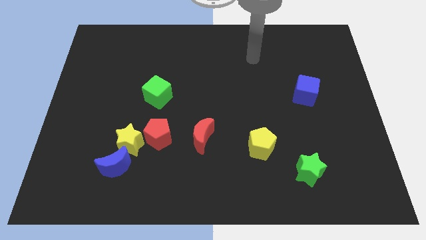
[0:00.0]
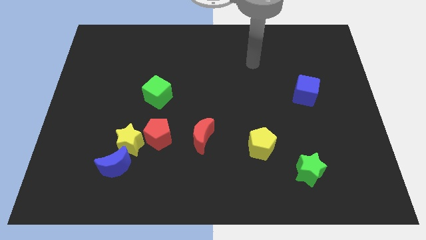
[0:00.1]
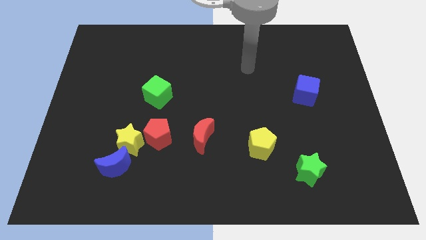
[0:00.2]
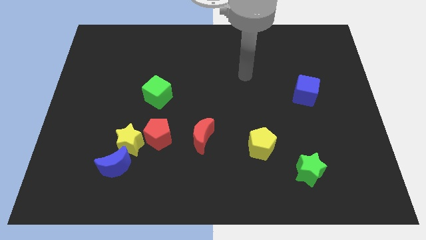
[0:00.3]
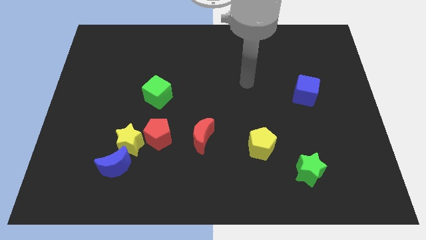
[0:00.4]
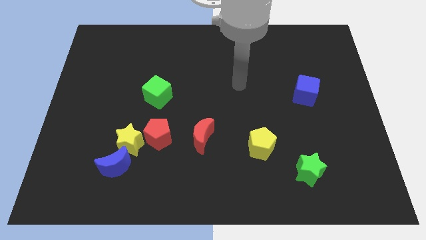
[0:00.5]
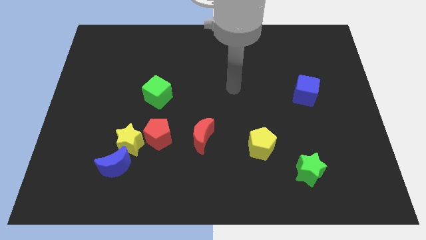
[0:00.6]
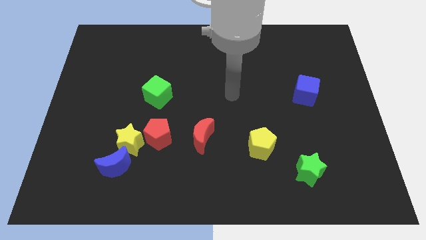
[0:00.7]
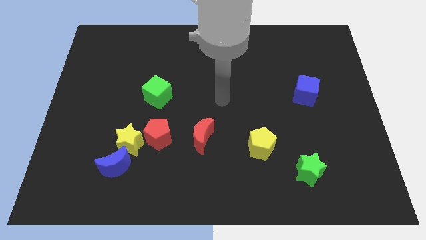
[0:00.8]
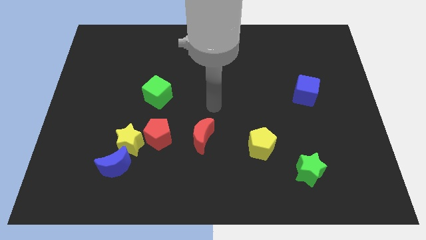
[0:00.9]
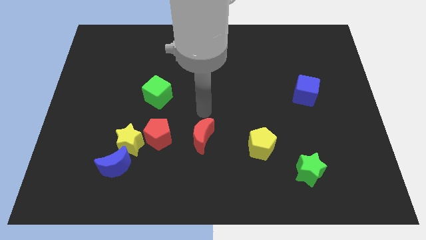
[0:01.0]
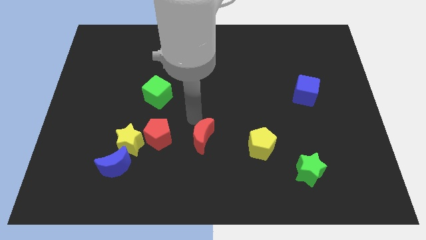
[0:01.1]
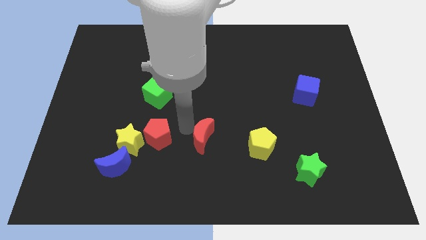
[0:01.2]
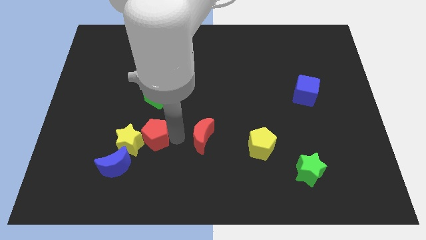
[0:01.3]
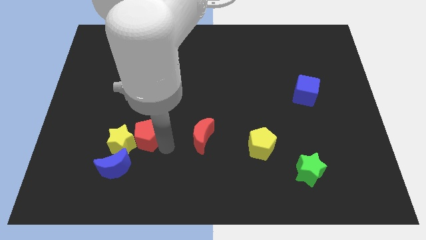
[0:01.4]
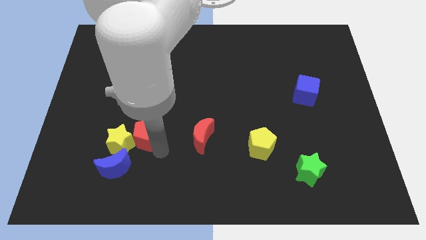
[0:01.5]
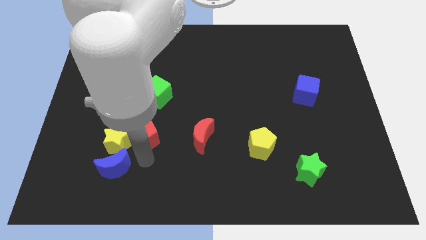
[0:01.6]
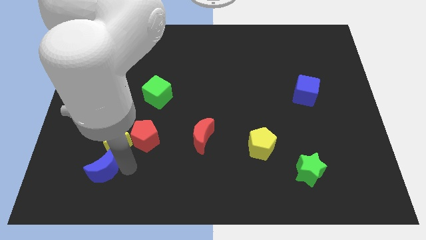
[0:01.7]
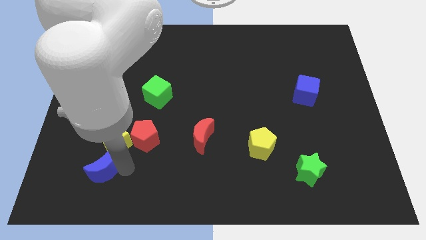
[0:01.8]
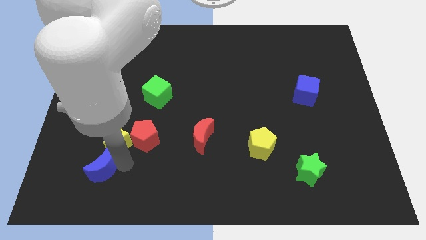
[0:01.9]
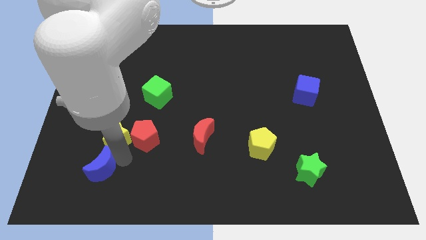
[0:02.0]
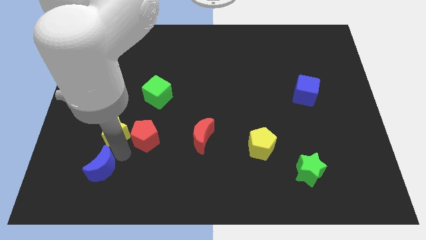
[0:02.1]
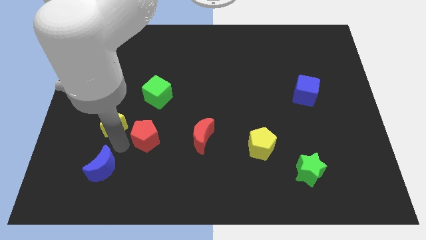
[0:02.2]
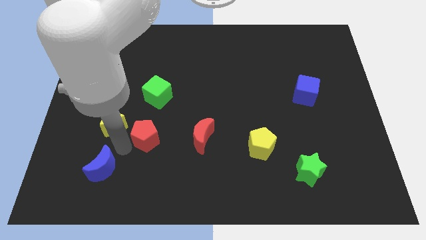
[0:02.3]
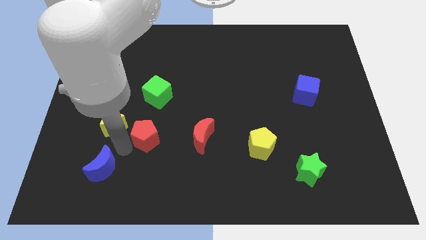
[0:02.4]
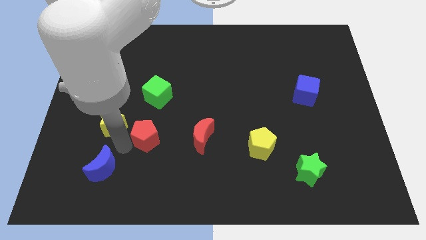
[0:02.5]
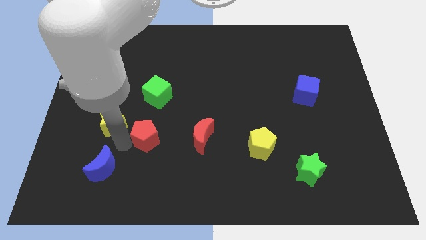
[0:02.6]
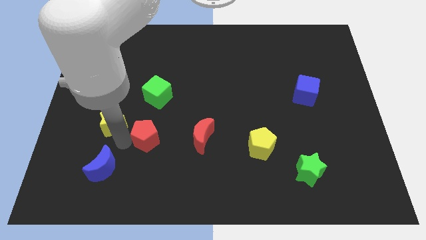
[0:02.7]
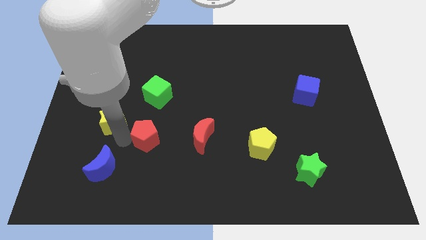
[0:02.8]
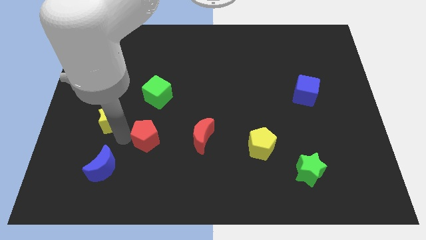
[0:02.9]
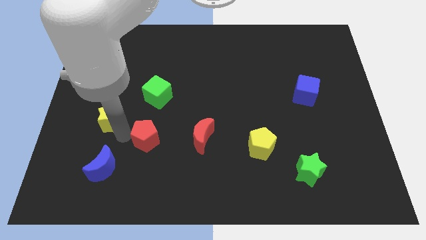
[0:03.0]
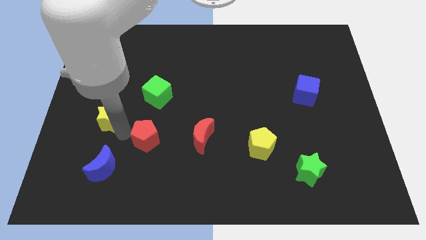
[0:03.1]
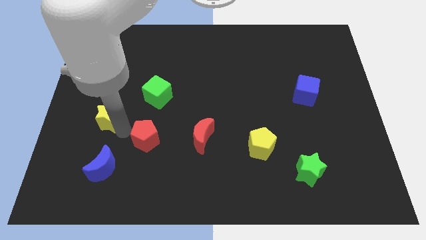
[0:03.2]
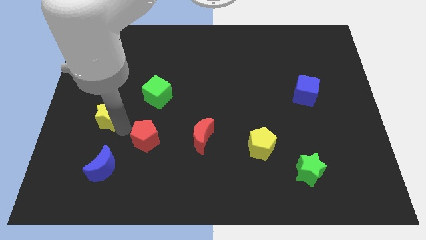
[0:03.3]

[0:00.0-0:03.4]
separate the yellow star from the red pentagon and blue moon

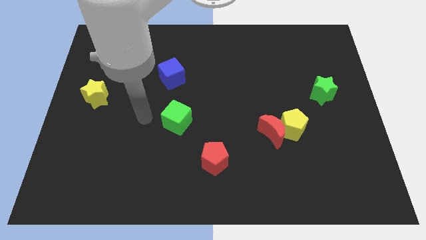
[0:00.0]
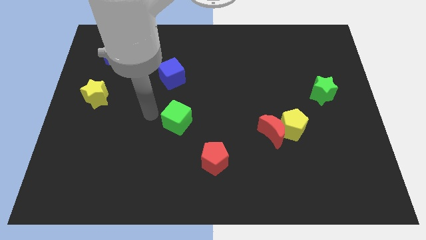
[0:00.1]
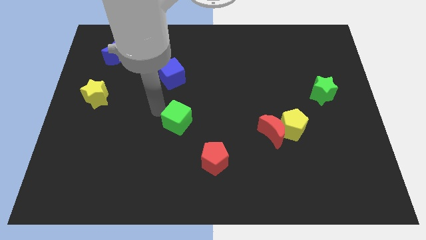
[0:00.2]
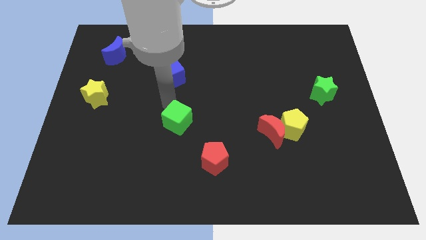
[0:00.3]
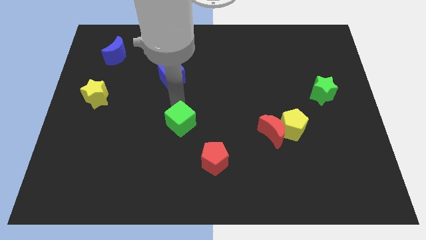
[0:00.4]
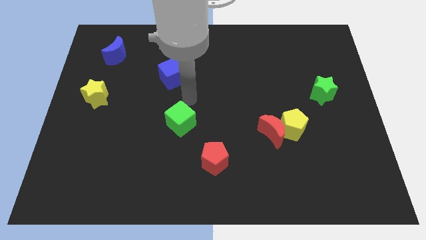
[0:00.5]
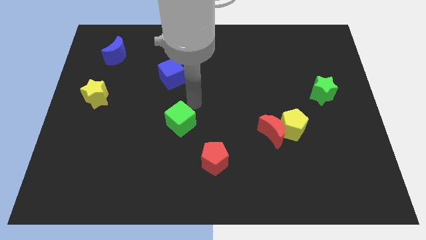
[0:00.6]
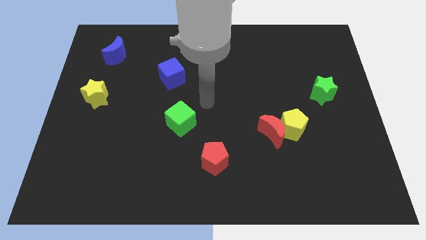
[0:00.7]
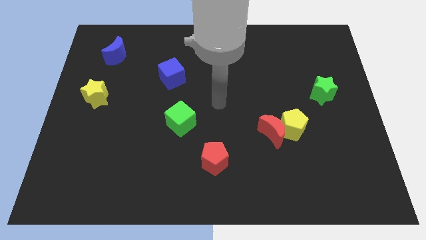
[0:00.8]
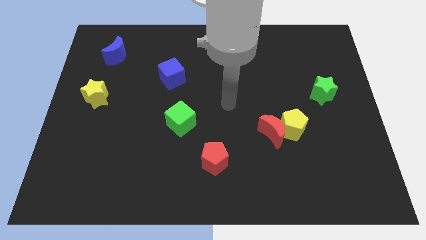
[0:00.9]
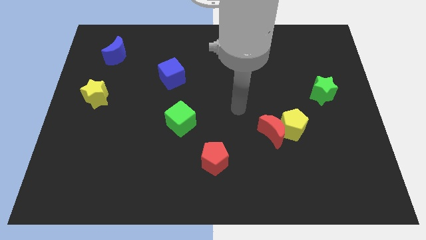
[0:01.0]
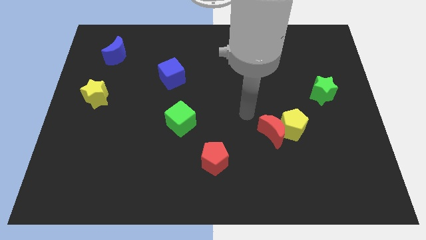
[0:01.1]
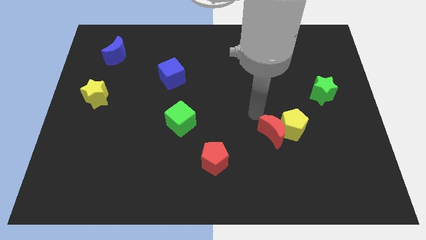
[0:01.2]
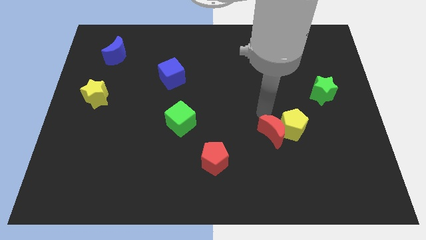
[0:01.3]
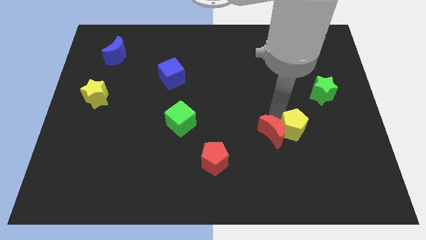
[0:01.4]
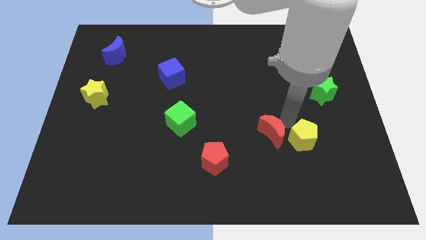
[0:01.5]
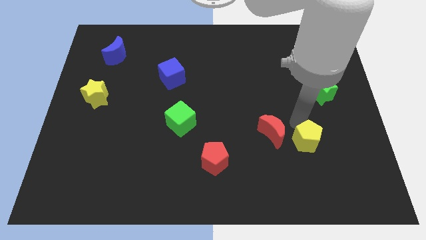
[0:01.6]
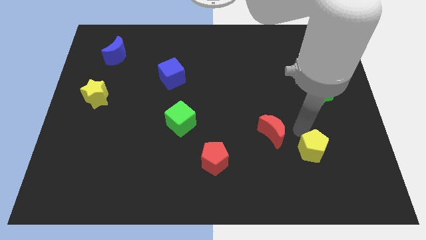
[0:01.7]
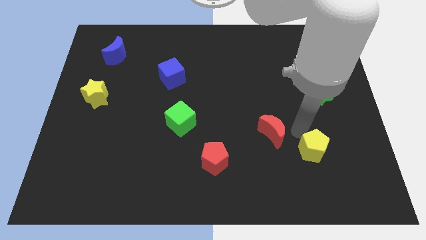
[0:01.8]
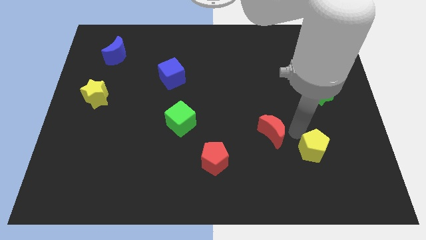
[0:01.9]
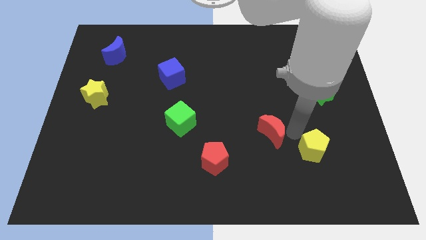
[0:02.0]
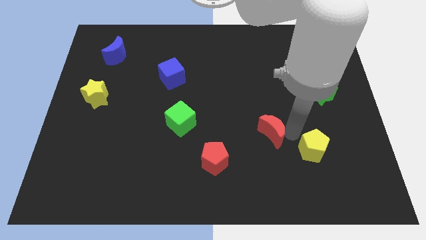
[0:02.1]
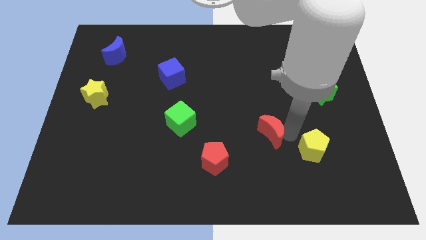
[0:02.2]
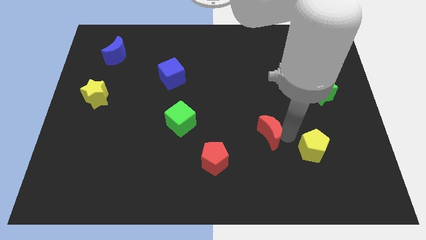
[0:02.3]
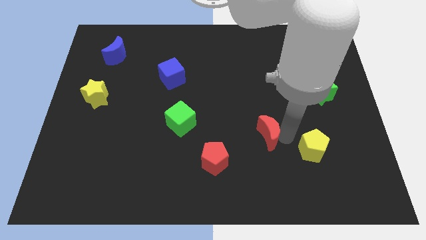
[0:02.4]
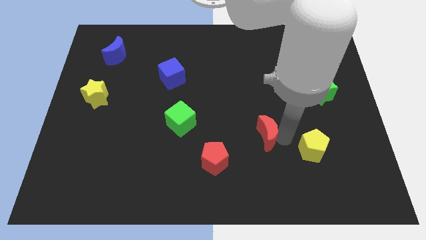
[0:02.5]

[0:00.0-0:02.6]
move the red moon away from the yellow pentagon

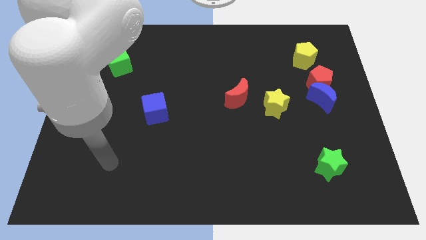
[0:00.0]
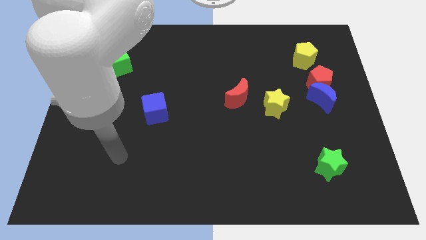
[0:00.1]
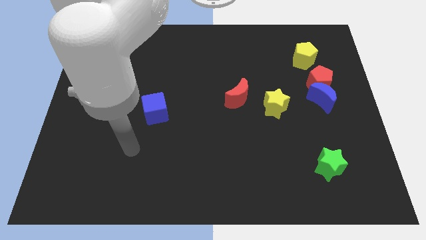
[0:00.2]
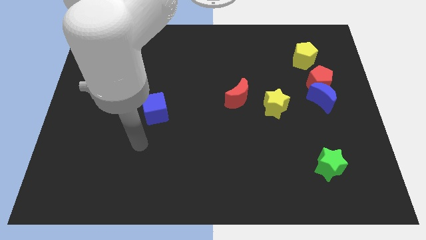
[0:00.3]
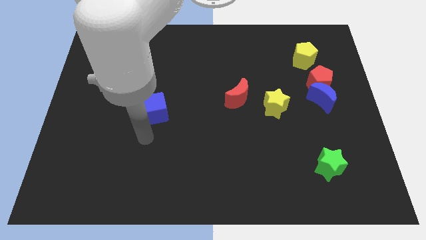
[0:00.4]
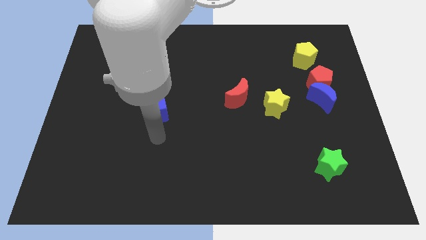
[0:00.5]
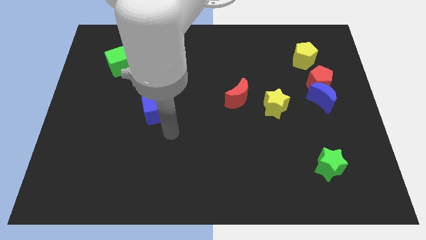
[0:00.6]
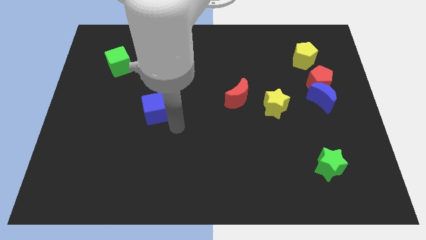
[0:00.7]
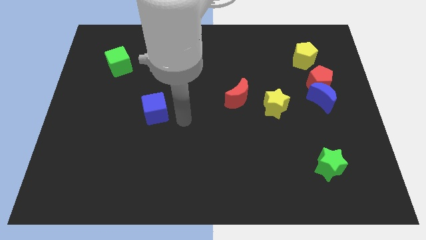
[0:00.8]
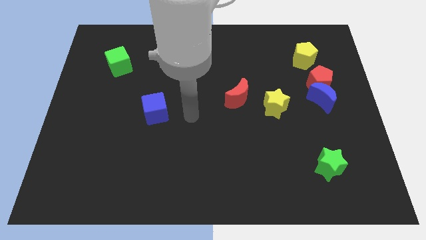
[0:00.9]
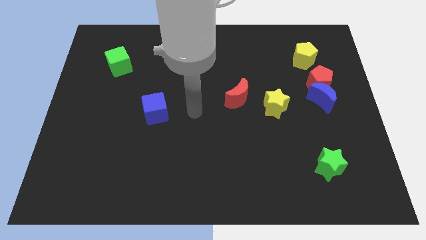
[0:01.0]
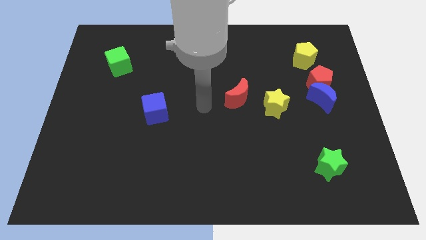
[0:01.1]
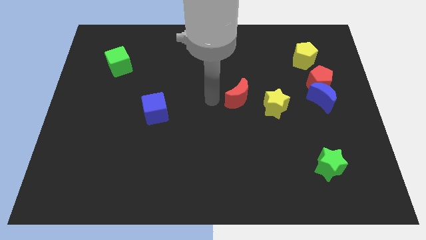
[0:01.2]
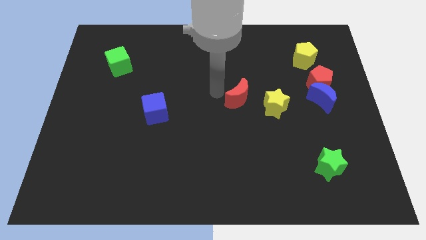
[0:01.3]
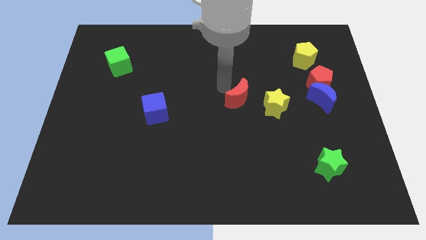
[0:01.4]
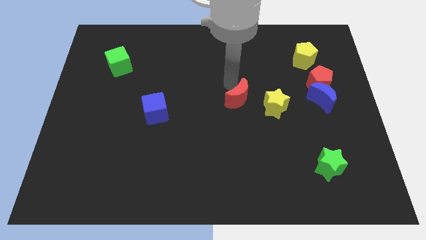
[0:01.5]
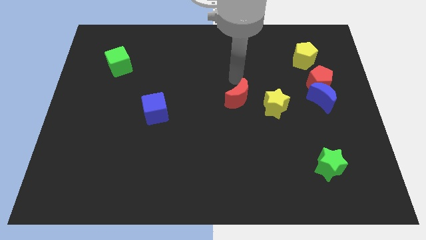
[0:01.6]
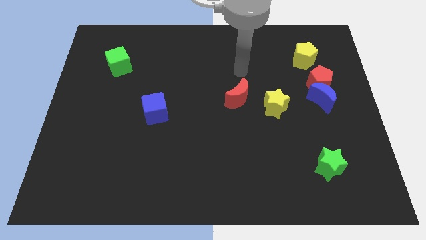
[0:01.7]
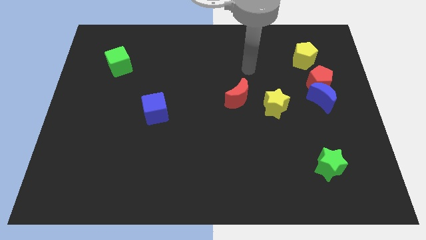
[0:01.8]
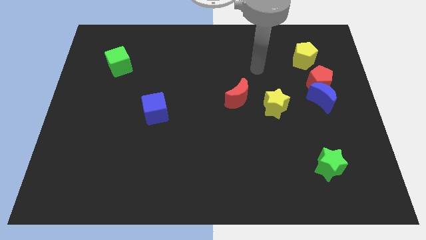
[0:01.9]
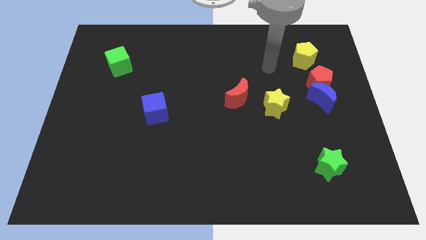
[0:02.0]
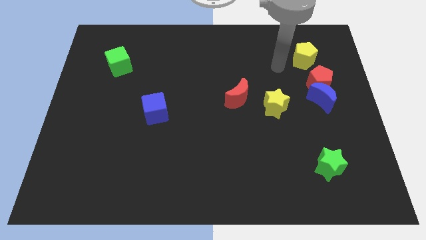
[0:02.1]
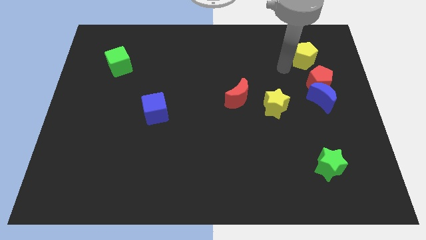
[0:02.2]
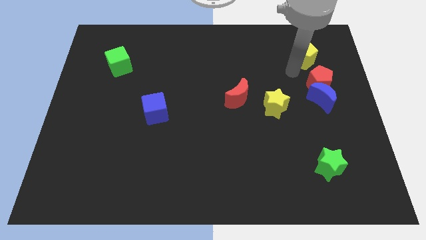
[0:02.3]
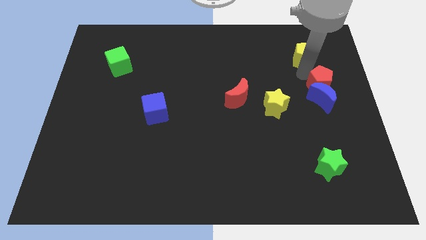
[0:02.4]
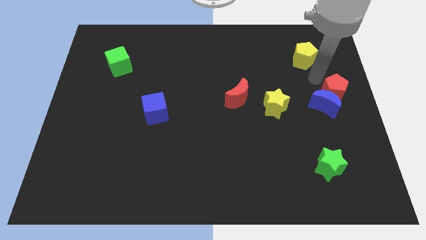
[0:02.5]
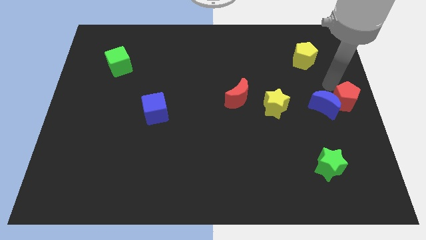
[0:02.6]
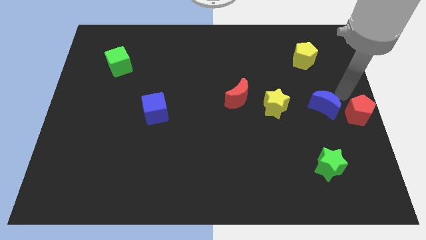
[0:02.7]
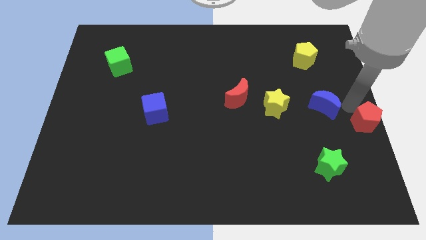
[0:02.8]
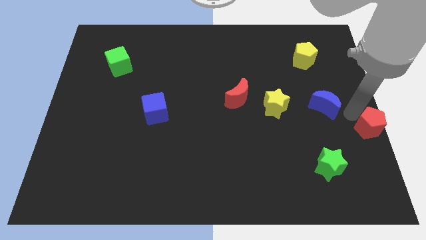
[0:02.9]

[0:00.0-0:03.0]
move the blue moon away from the red pentagon

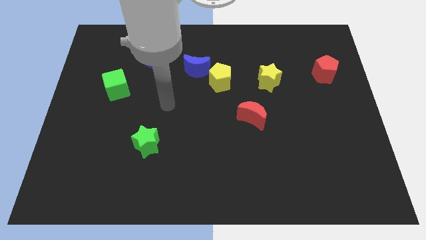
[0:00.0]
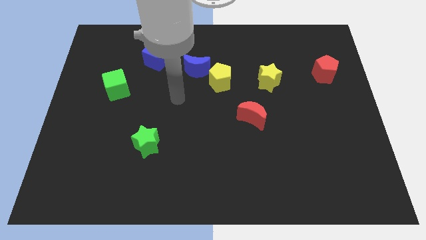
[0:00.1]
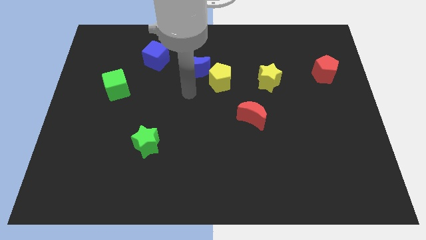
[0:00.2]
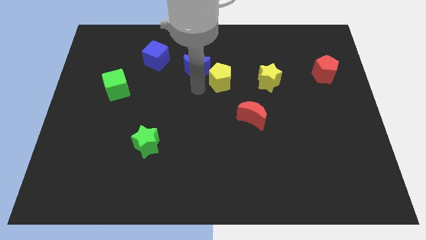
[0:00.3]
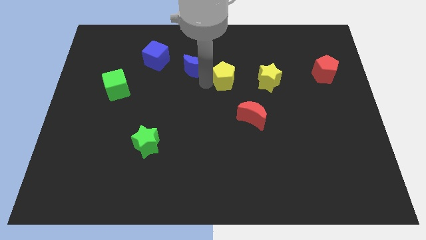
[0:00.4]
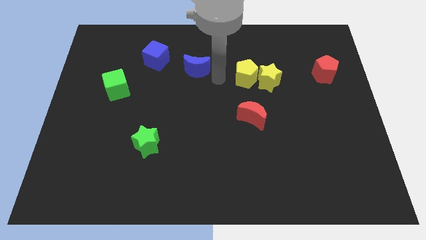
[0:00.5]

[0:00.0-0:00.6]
separate the blue moon from the yellow pentagon
